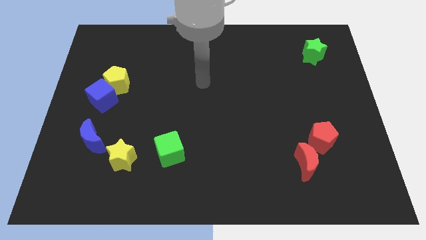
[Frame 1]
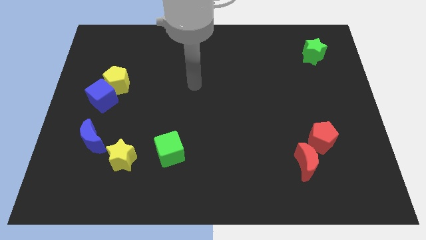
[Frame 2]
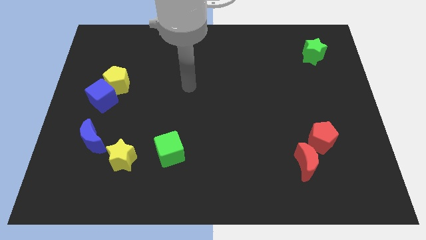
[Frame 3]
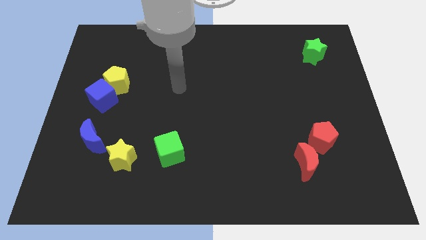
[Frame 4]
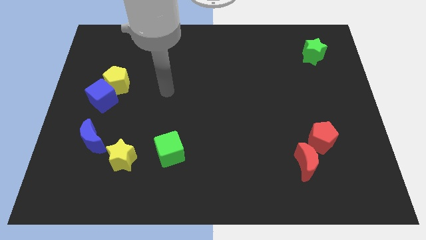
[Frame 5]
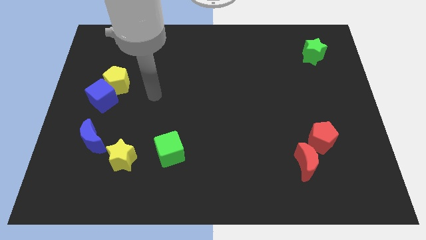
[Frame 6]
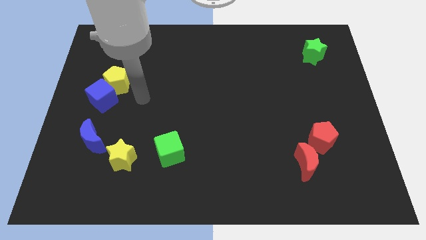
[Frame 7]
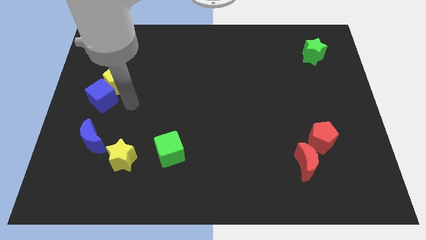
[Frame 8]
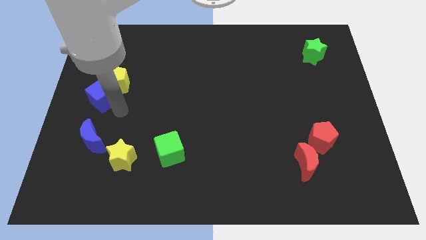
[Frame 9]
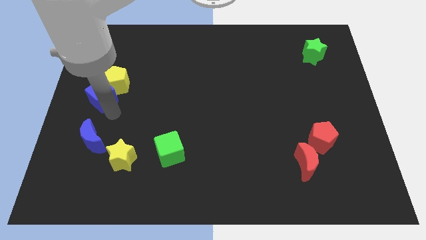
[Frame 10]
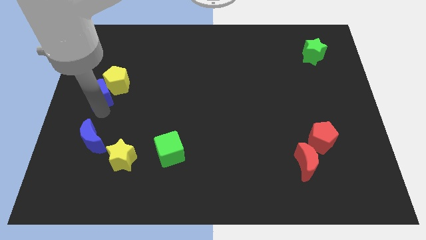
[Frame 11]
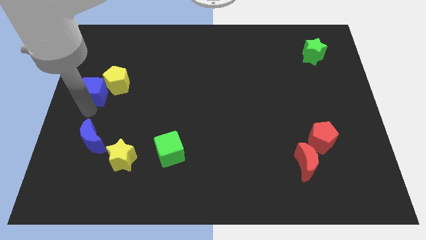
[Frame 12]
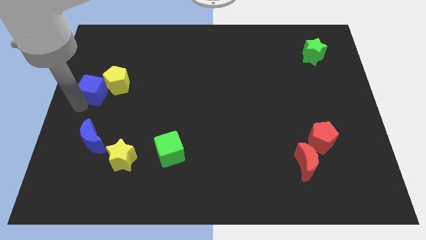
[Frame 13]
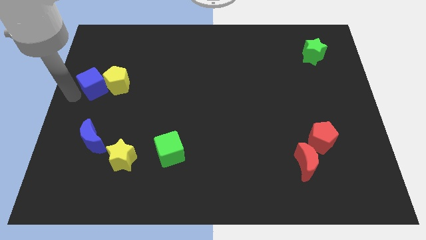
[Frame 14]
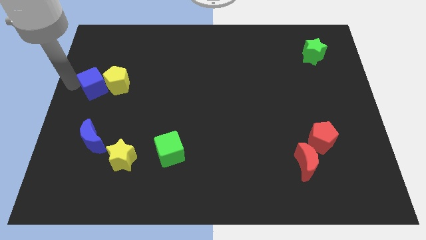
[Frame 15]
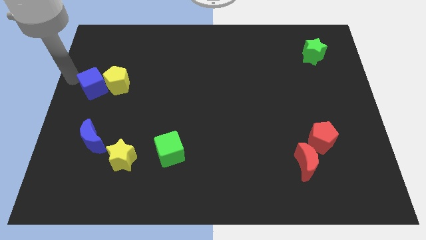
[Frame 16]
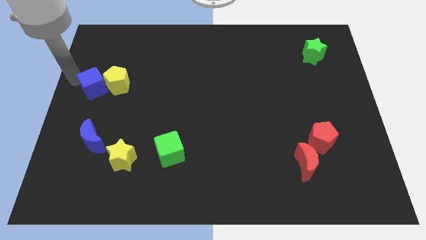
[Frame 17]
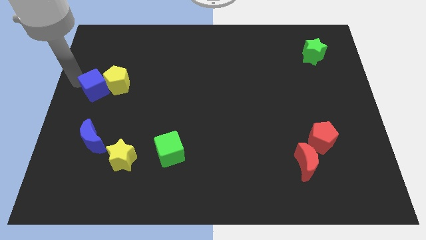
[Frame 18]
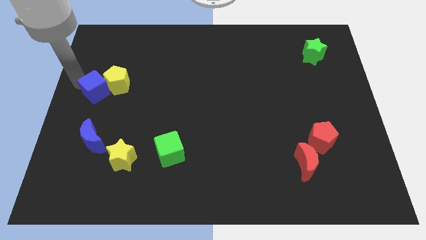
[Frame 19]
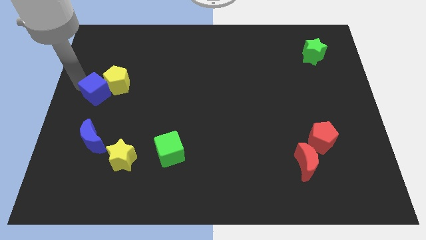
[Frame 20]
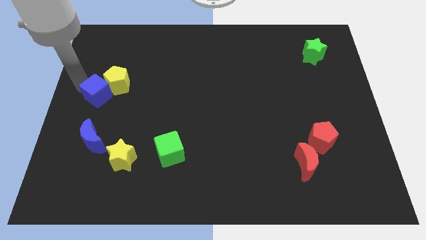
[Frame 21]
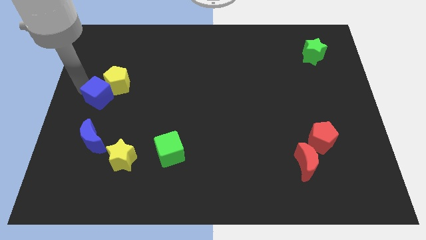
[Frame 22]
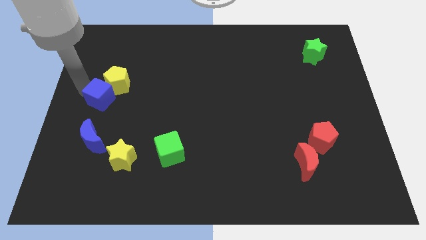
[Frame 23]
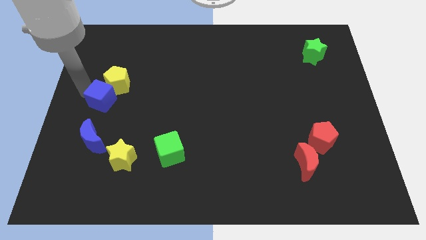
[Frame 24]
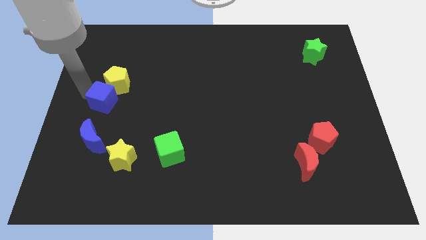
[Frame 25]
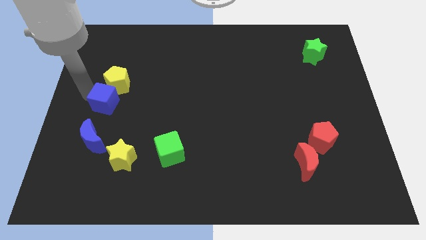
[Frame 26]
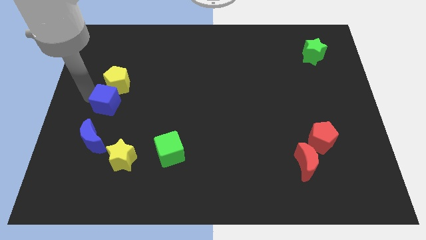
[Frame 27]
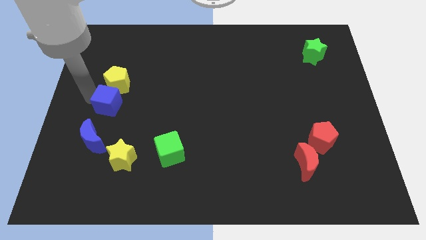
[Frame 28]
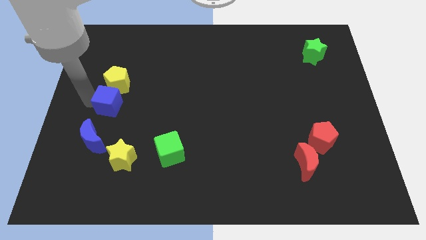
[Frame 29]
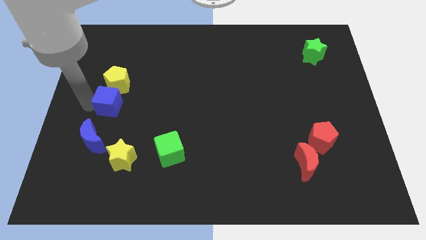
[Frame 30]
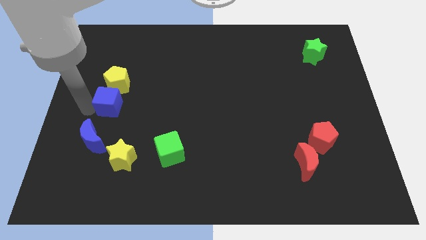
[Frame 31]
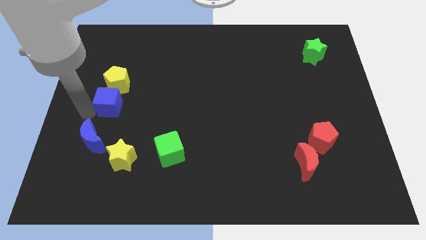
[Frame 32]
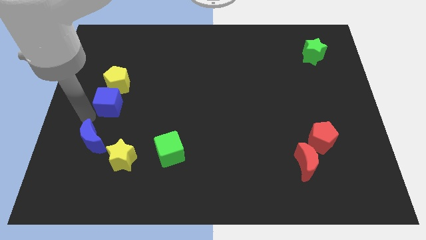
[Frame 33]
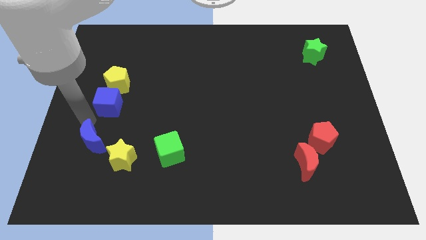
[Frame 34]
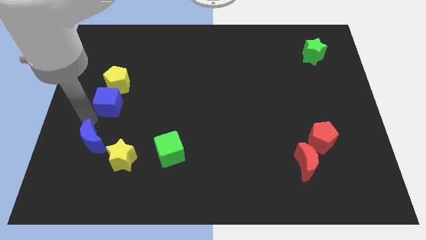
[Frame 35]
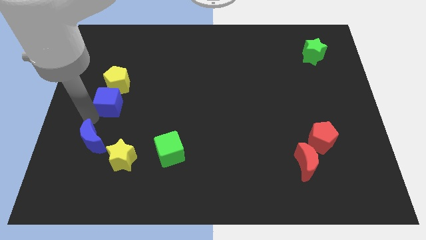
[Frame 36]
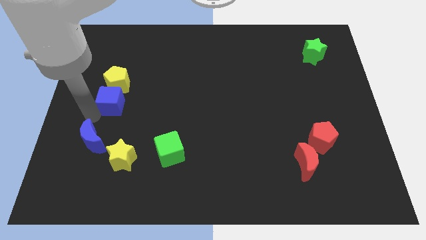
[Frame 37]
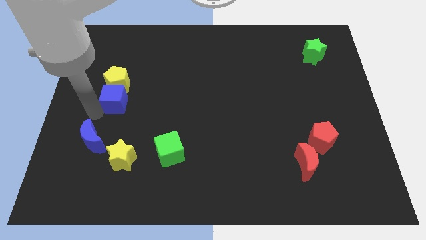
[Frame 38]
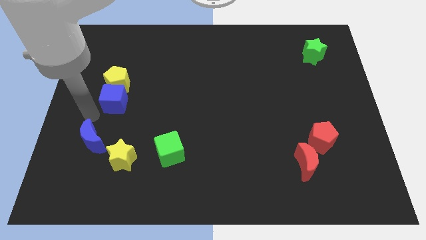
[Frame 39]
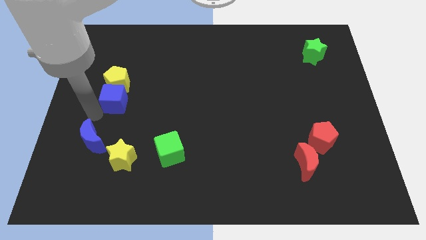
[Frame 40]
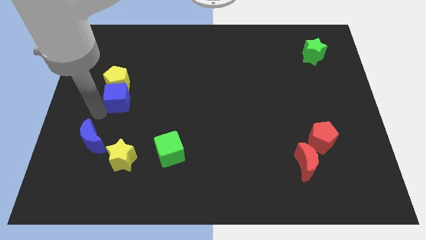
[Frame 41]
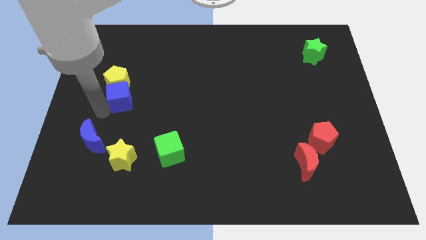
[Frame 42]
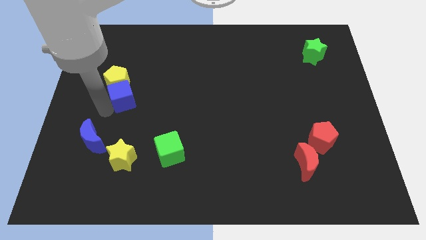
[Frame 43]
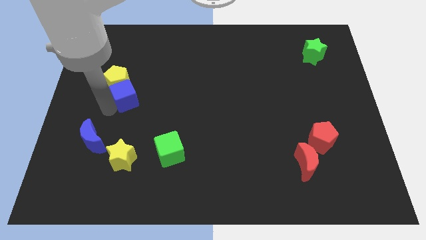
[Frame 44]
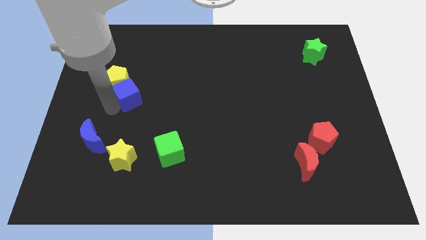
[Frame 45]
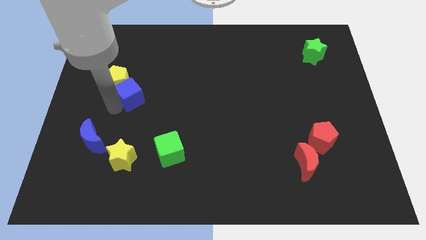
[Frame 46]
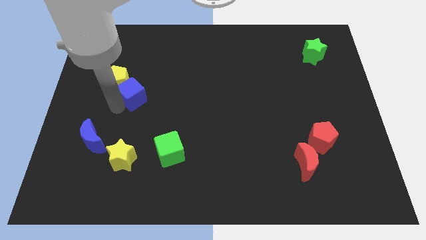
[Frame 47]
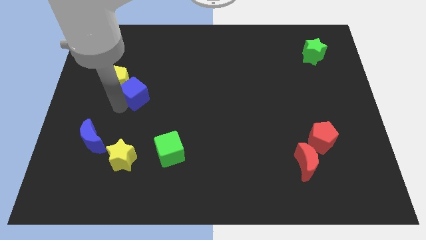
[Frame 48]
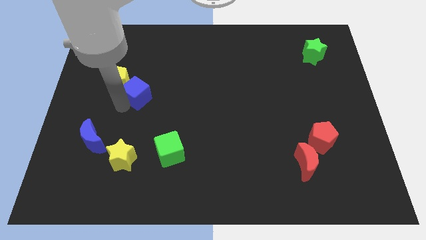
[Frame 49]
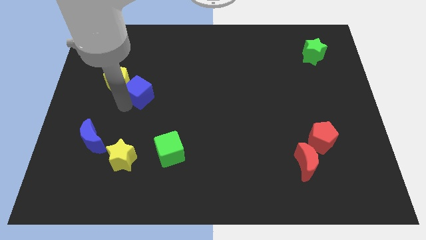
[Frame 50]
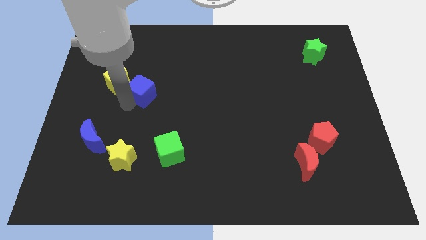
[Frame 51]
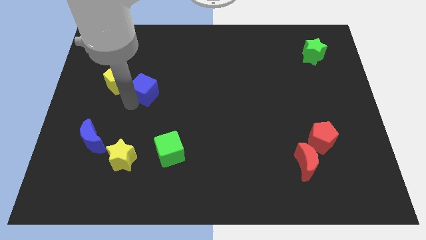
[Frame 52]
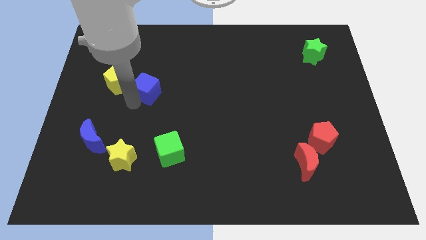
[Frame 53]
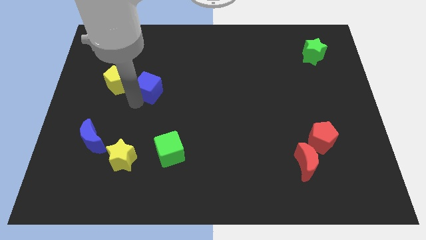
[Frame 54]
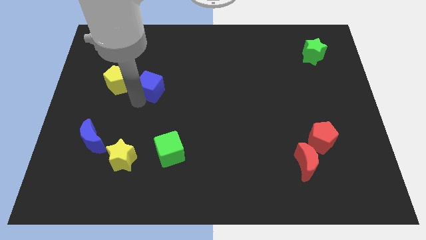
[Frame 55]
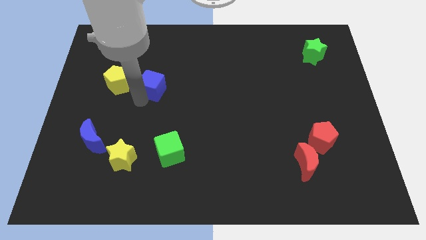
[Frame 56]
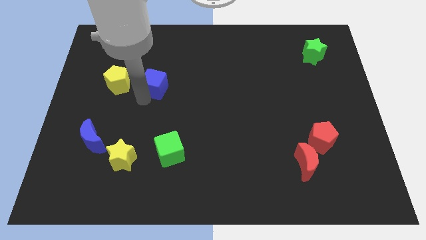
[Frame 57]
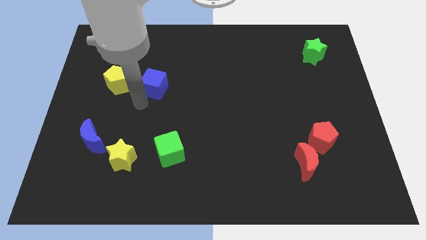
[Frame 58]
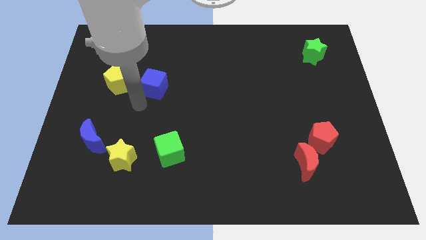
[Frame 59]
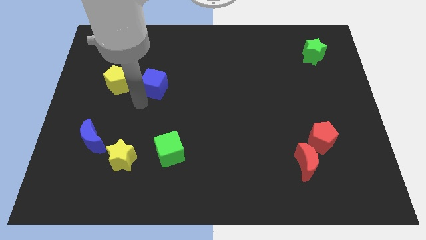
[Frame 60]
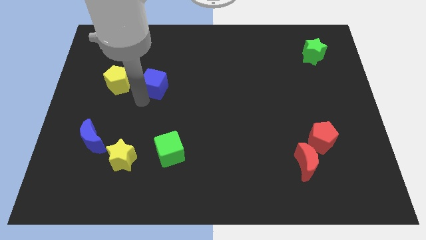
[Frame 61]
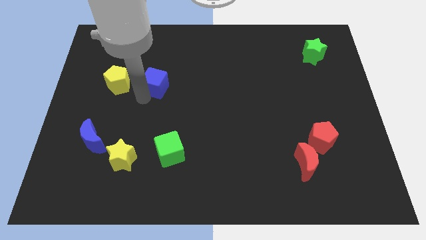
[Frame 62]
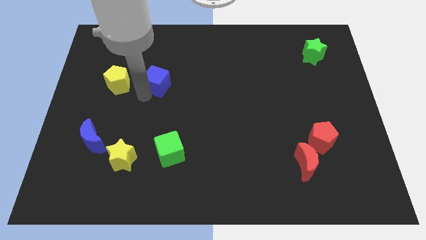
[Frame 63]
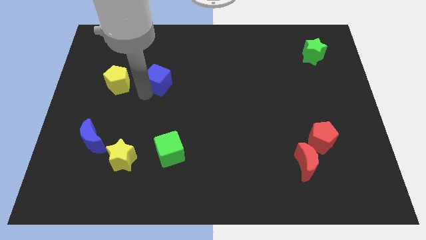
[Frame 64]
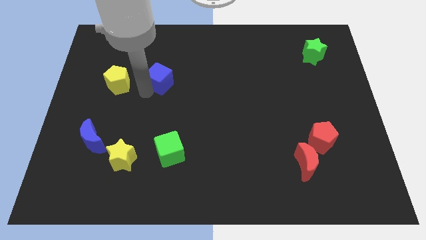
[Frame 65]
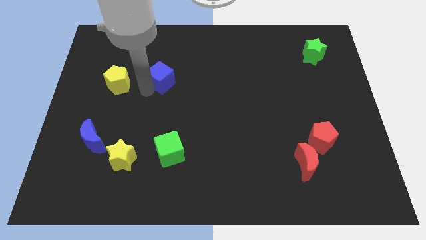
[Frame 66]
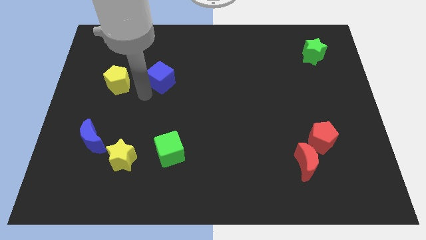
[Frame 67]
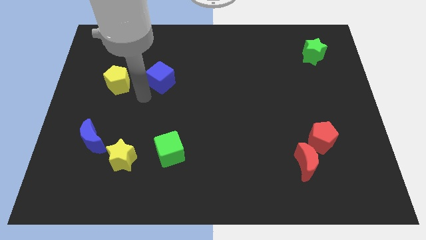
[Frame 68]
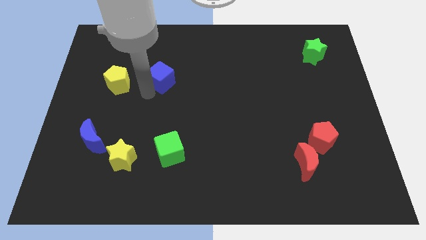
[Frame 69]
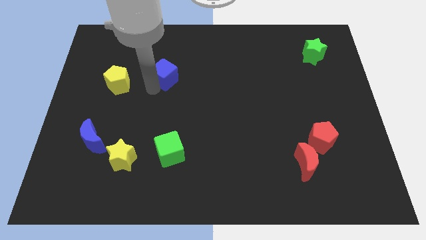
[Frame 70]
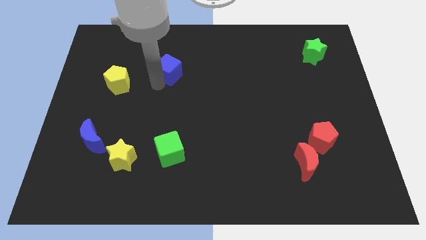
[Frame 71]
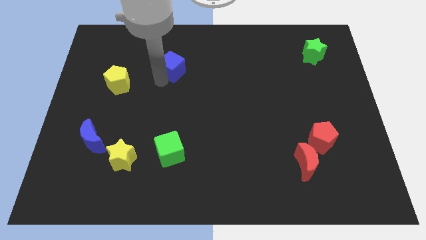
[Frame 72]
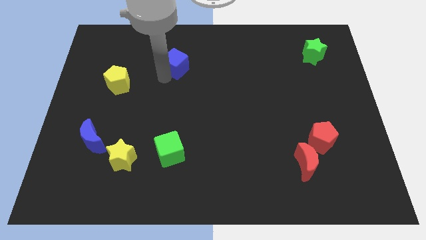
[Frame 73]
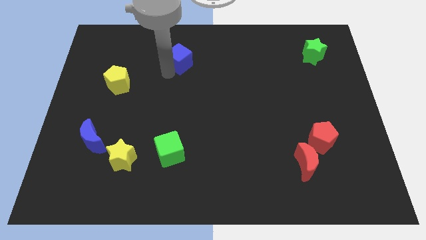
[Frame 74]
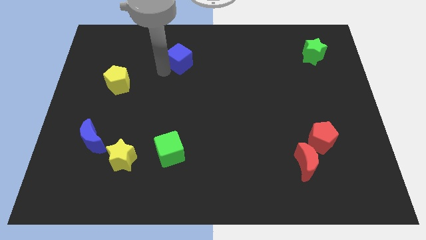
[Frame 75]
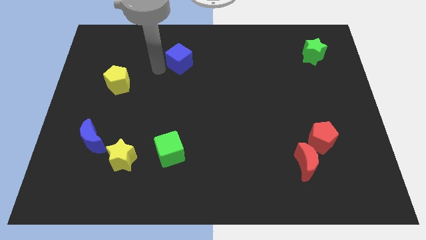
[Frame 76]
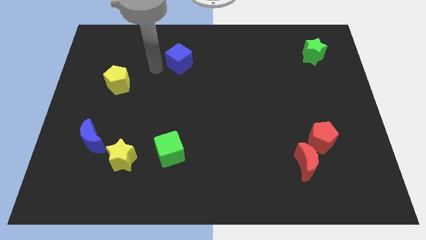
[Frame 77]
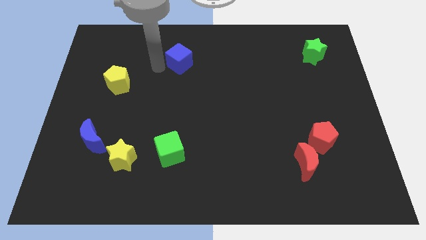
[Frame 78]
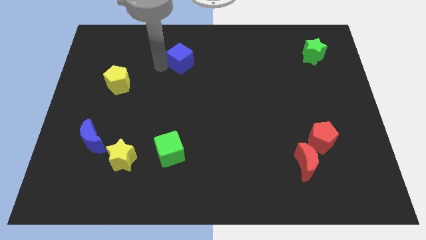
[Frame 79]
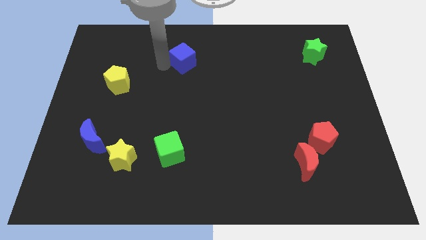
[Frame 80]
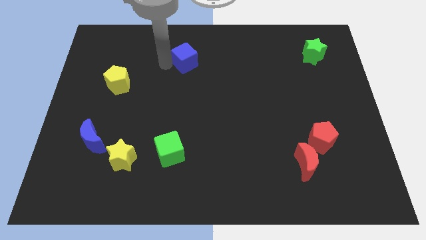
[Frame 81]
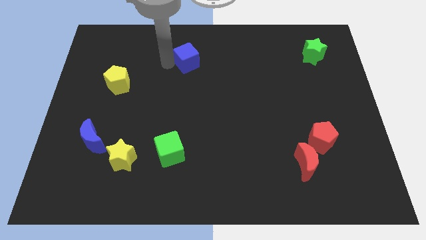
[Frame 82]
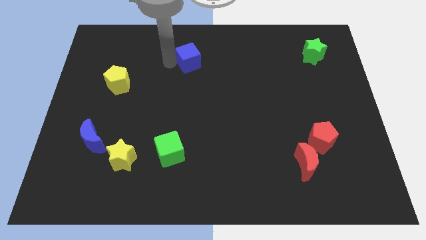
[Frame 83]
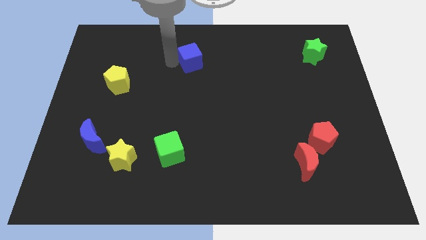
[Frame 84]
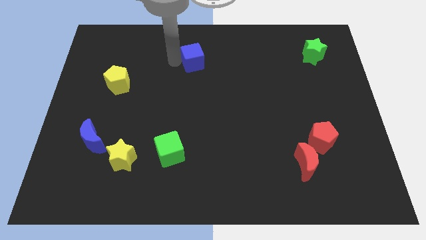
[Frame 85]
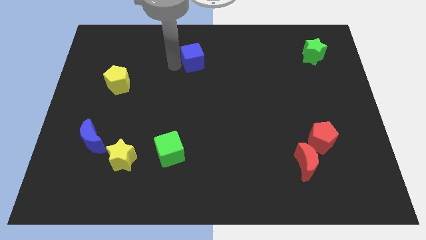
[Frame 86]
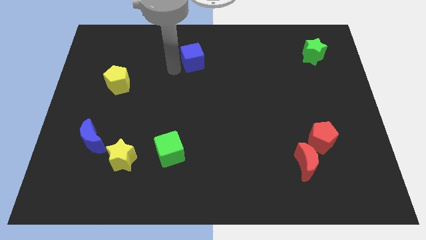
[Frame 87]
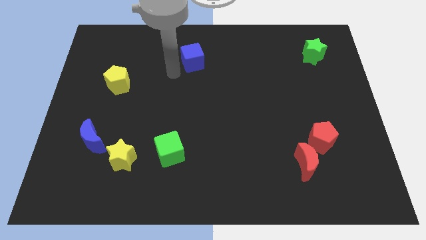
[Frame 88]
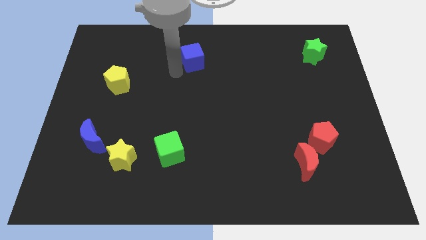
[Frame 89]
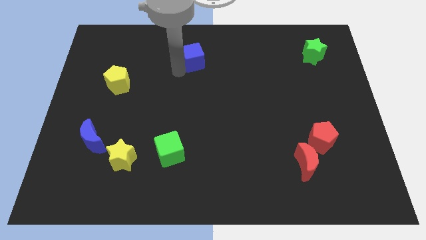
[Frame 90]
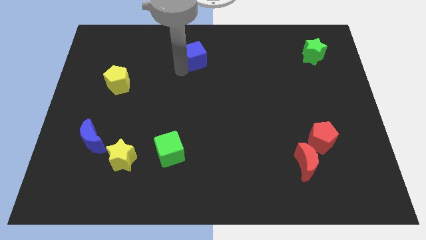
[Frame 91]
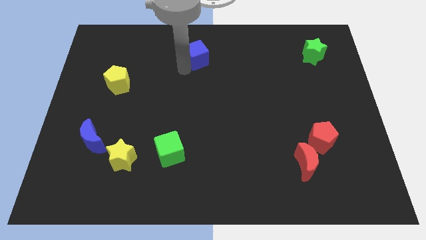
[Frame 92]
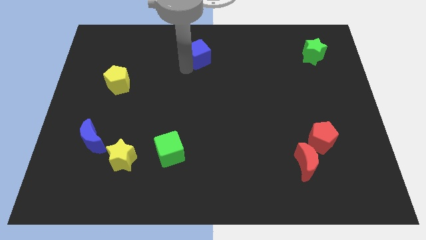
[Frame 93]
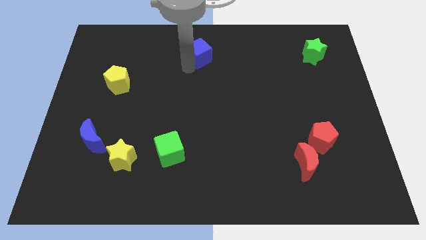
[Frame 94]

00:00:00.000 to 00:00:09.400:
slide the blue cube to the top
